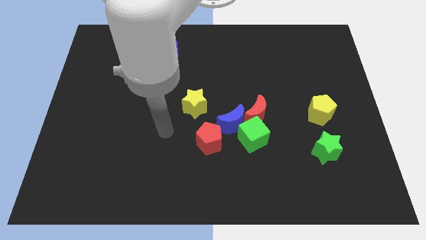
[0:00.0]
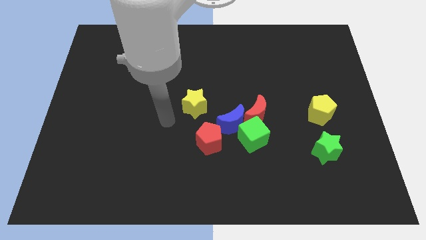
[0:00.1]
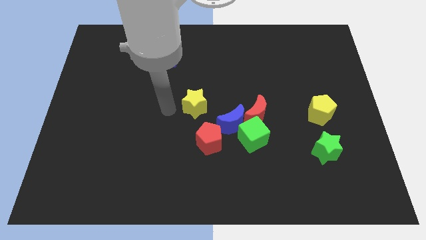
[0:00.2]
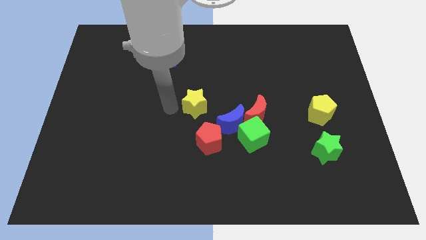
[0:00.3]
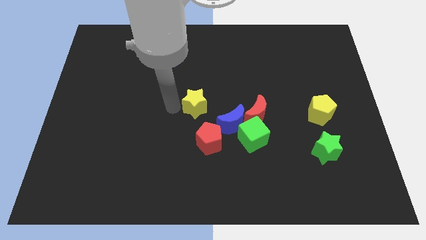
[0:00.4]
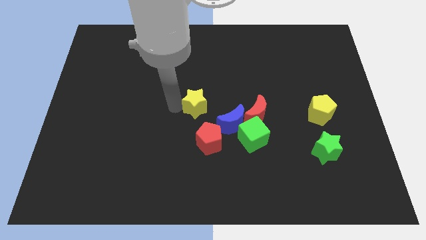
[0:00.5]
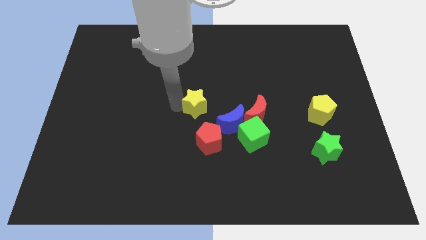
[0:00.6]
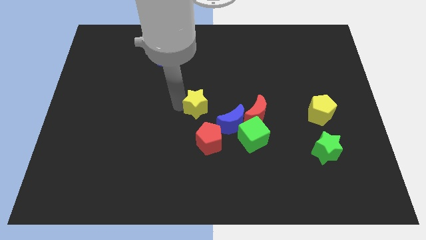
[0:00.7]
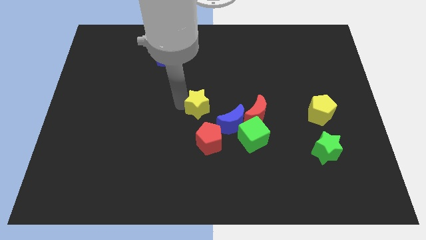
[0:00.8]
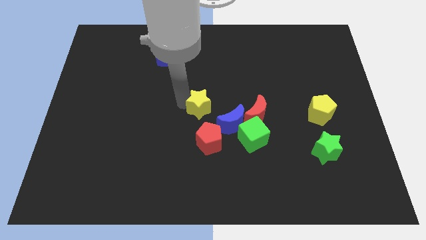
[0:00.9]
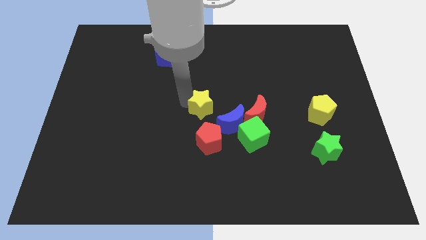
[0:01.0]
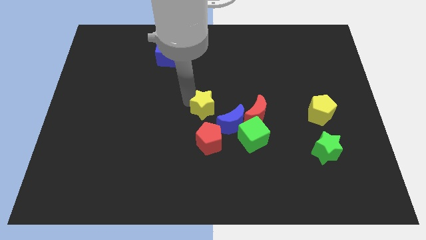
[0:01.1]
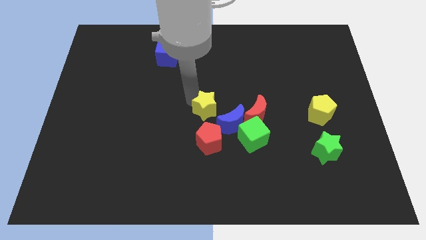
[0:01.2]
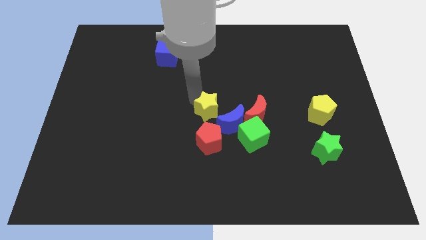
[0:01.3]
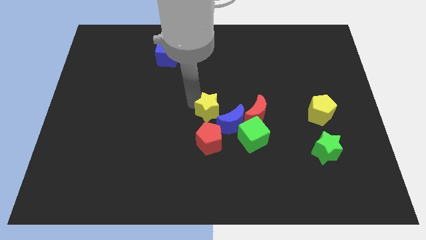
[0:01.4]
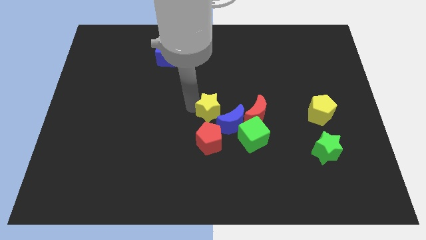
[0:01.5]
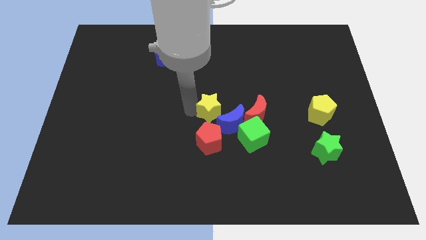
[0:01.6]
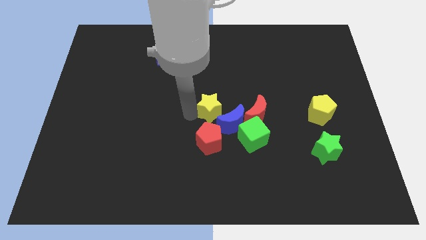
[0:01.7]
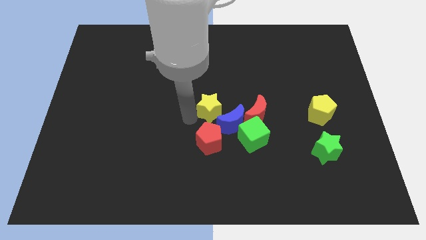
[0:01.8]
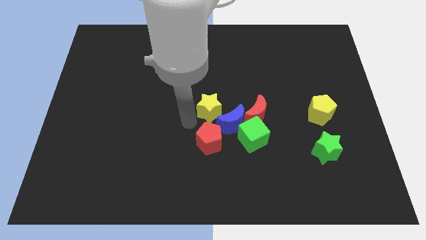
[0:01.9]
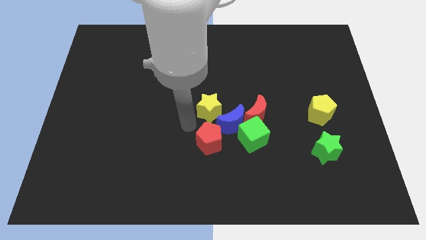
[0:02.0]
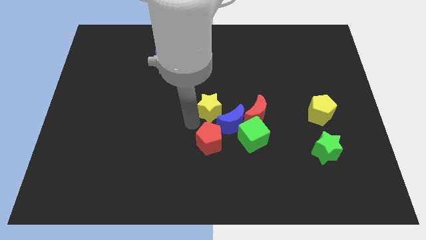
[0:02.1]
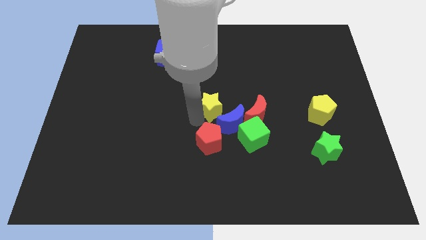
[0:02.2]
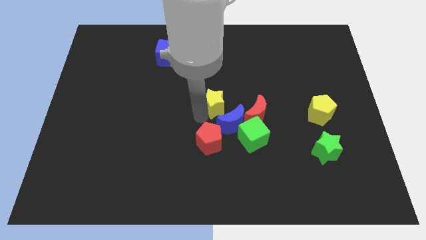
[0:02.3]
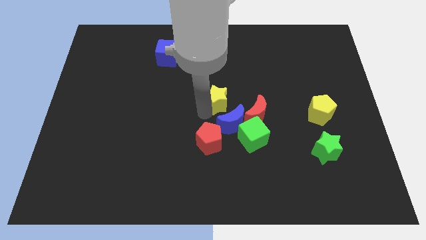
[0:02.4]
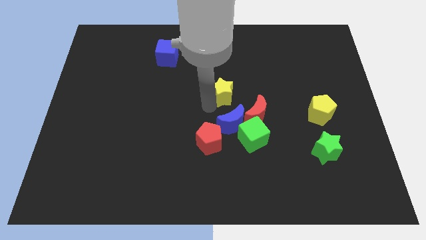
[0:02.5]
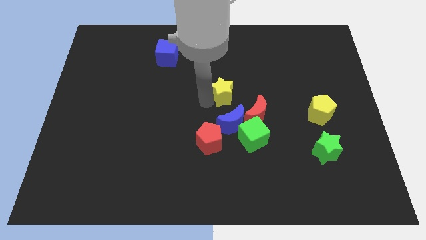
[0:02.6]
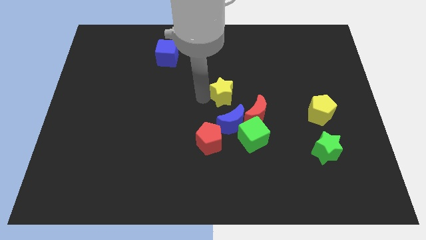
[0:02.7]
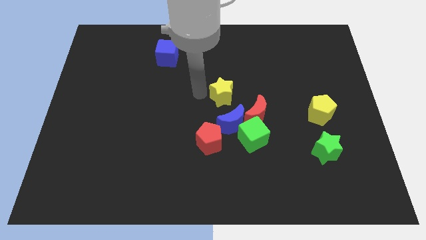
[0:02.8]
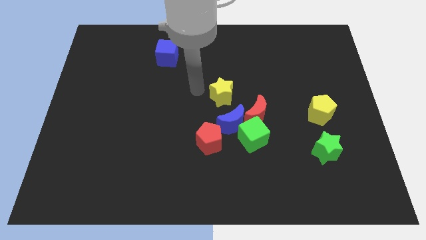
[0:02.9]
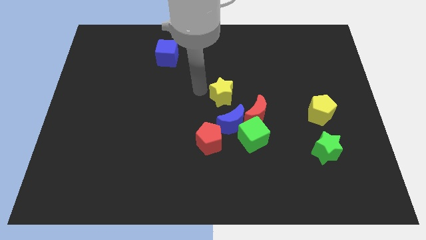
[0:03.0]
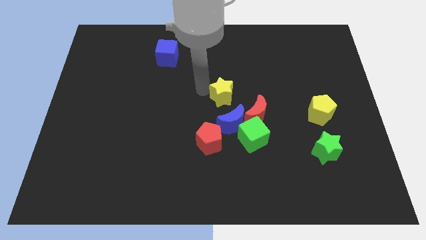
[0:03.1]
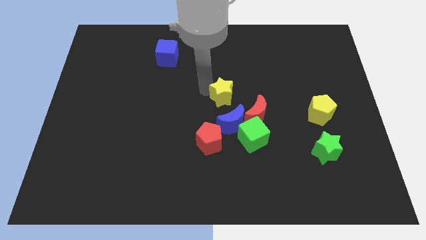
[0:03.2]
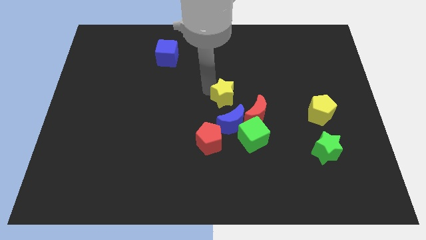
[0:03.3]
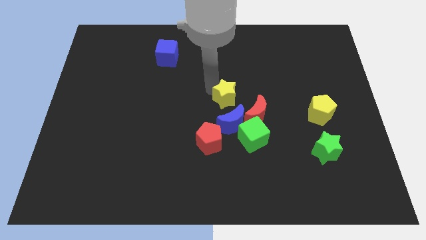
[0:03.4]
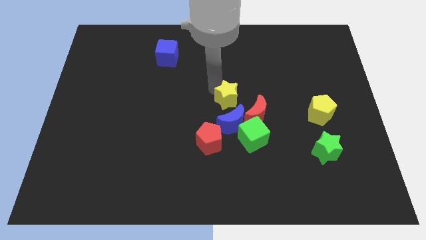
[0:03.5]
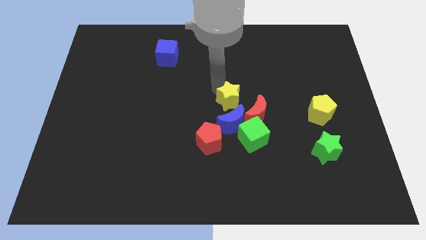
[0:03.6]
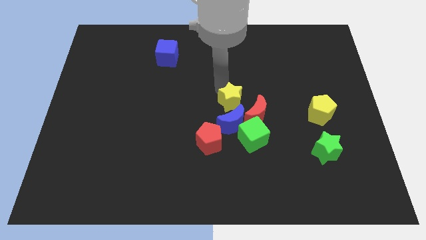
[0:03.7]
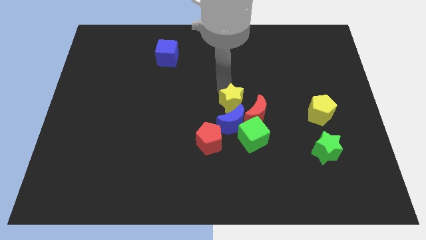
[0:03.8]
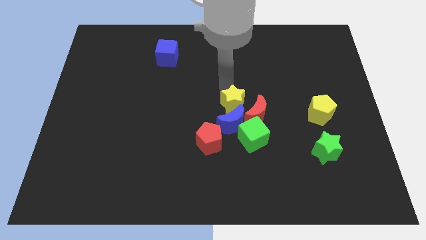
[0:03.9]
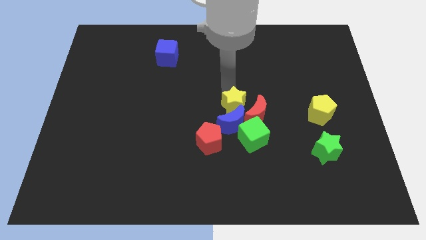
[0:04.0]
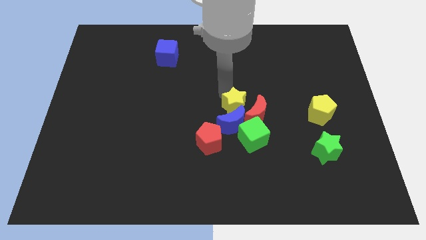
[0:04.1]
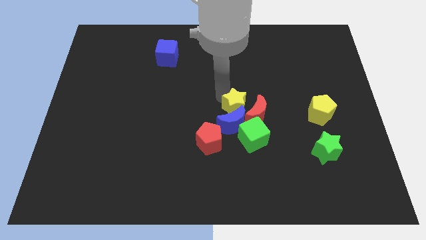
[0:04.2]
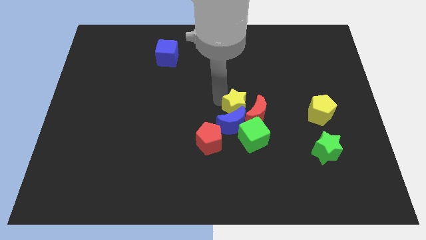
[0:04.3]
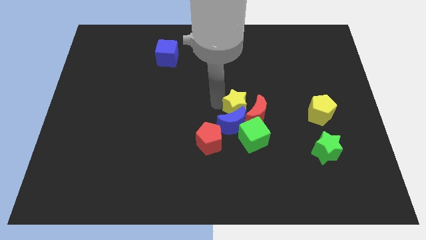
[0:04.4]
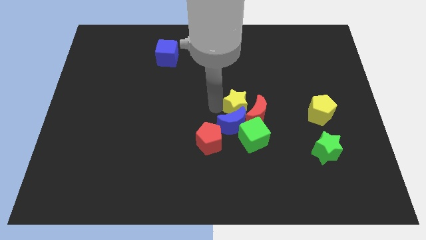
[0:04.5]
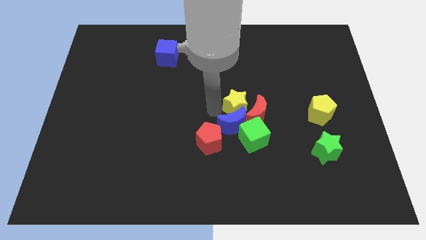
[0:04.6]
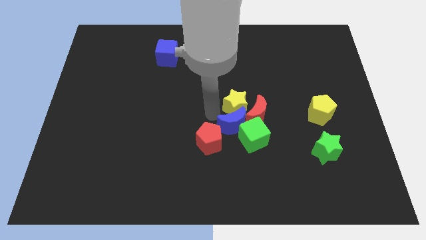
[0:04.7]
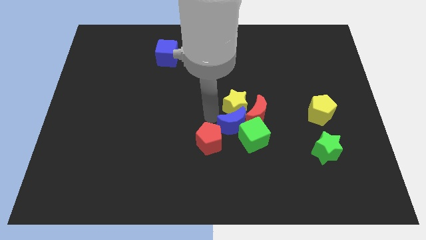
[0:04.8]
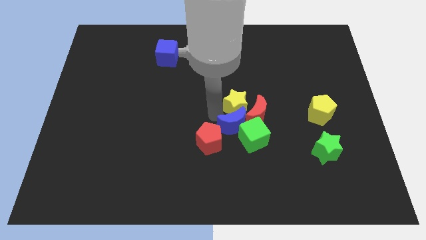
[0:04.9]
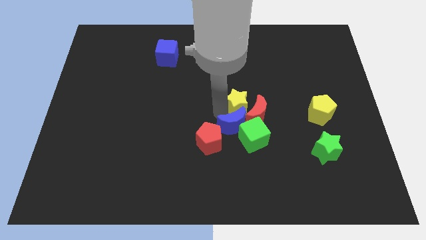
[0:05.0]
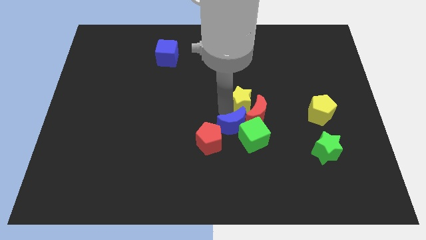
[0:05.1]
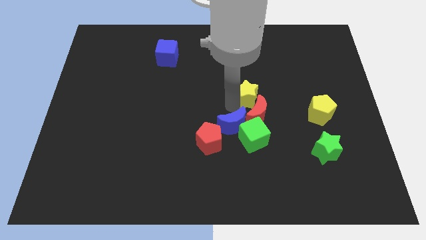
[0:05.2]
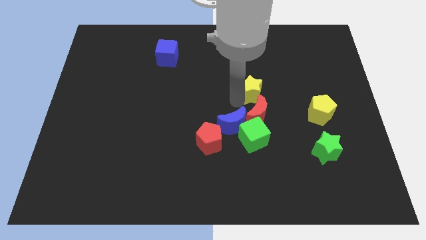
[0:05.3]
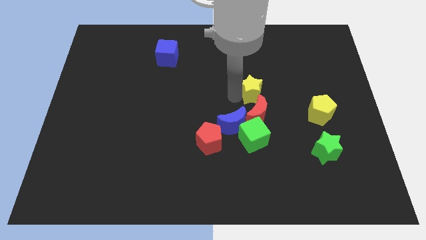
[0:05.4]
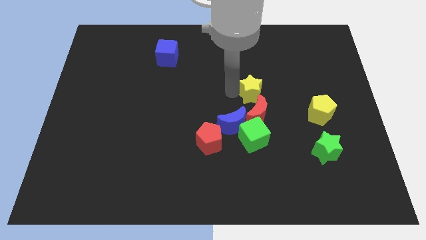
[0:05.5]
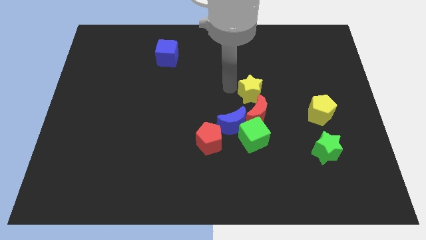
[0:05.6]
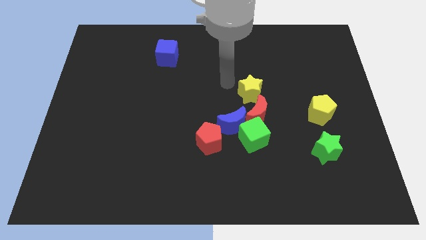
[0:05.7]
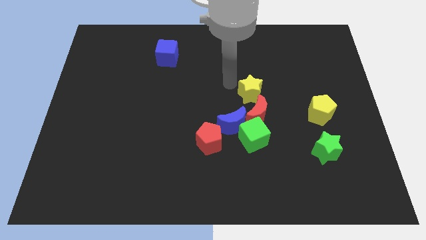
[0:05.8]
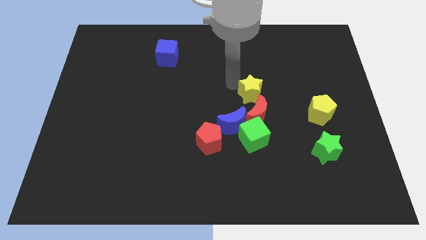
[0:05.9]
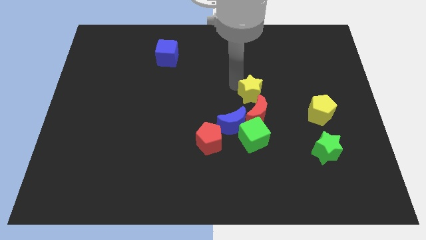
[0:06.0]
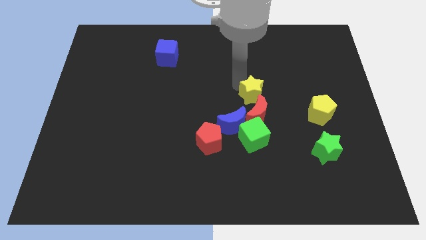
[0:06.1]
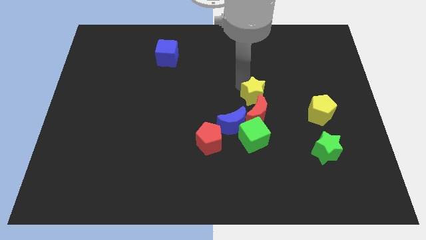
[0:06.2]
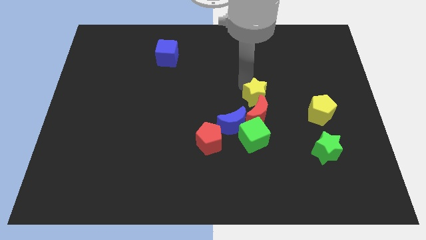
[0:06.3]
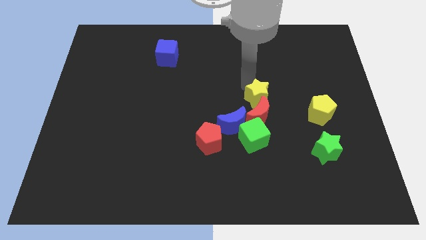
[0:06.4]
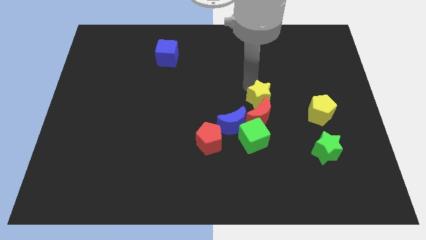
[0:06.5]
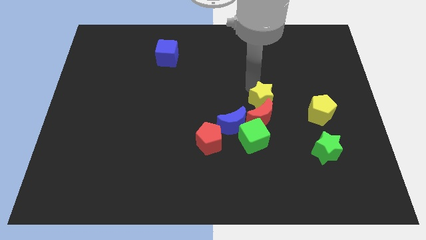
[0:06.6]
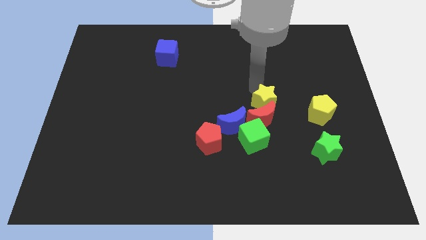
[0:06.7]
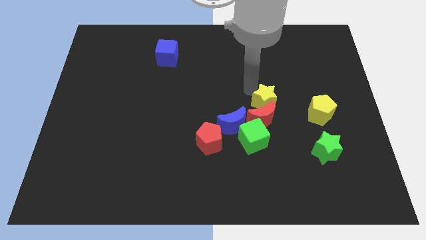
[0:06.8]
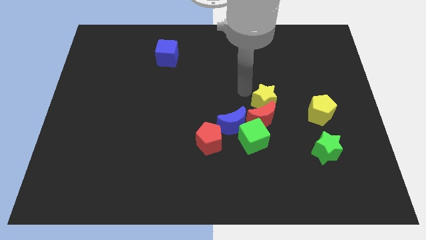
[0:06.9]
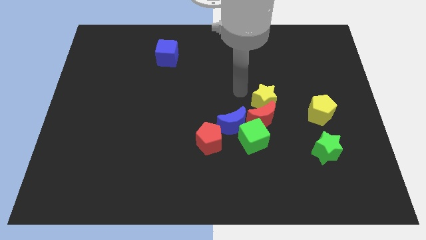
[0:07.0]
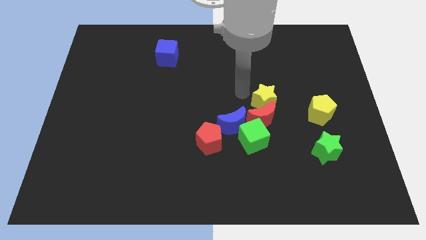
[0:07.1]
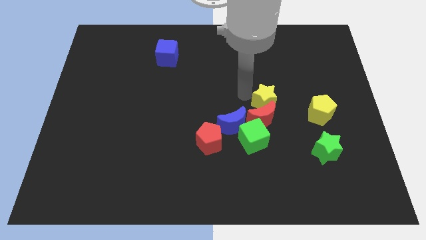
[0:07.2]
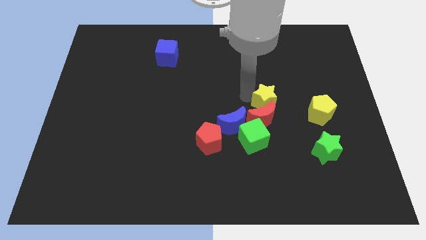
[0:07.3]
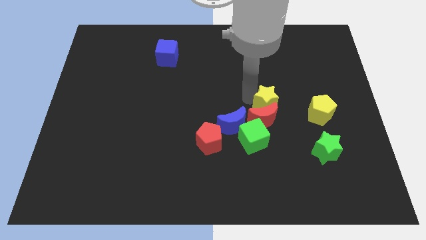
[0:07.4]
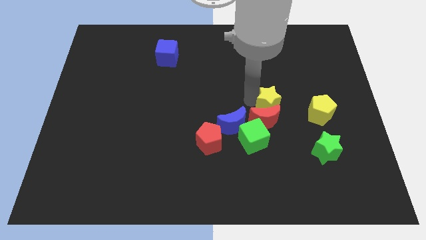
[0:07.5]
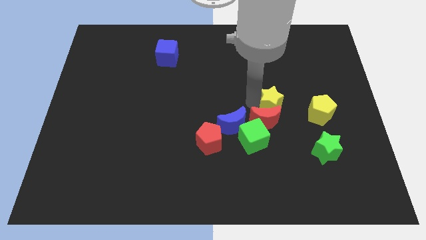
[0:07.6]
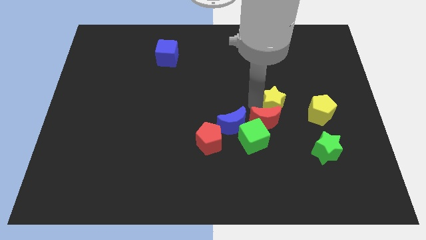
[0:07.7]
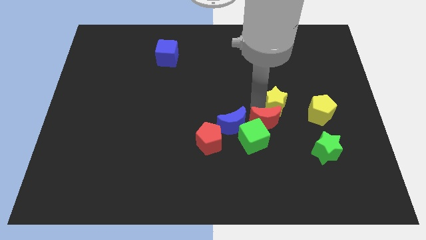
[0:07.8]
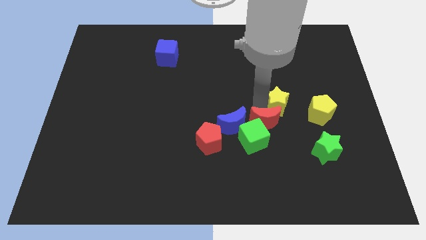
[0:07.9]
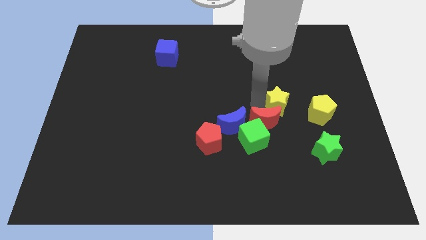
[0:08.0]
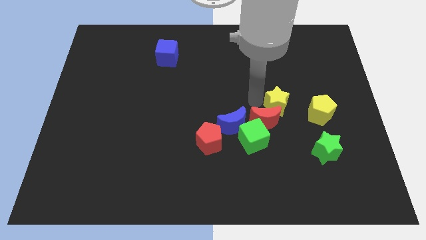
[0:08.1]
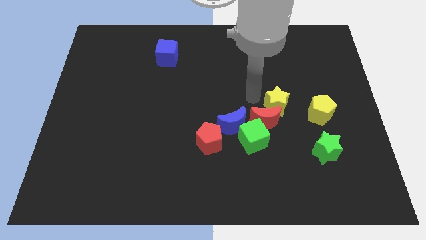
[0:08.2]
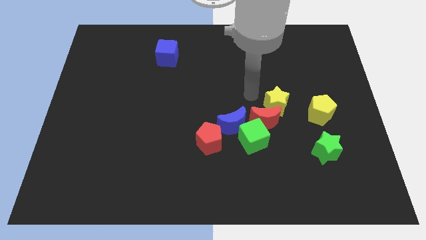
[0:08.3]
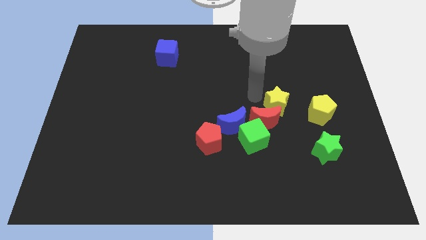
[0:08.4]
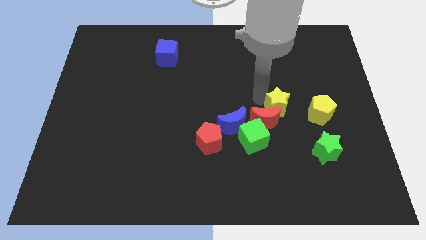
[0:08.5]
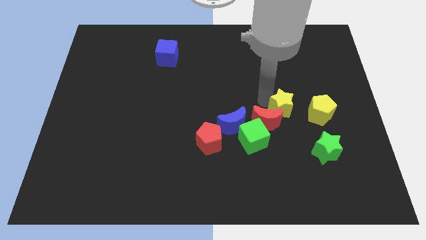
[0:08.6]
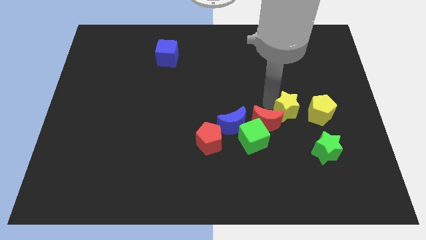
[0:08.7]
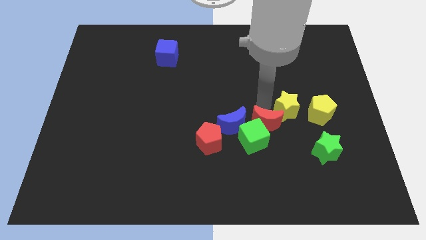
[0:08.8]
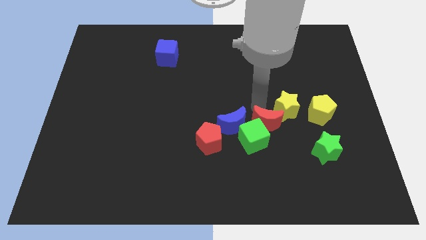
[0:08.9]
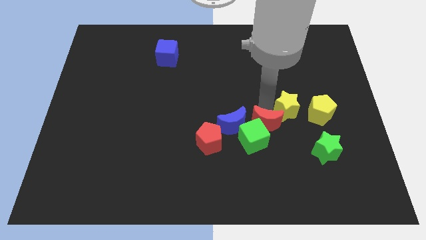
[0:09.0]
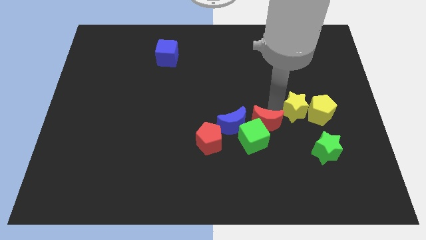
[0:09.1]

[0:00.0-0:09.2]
slide the yellow star to the yellow pentagon
